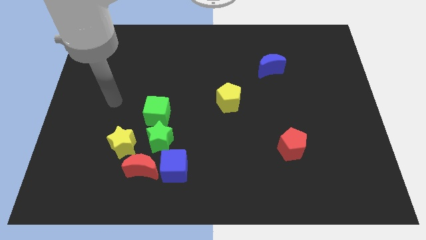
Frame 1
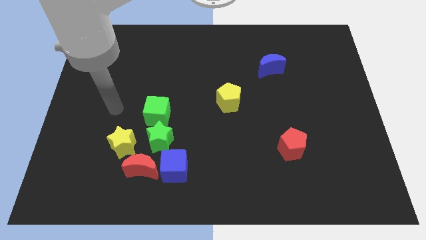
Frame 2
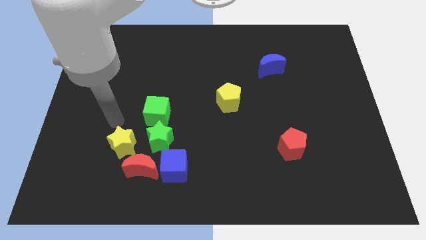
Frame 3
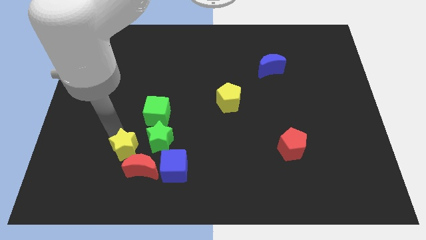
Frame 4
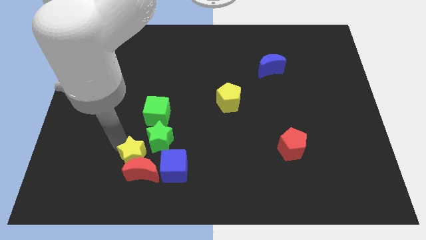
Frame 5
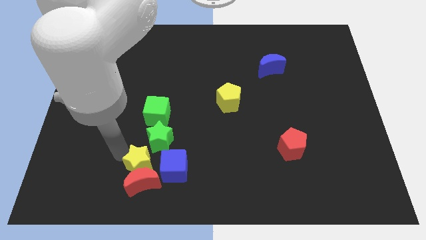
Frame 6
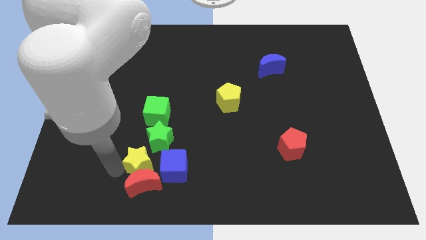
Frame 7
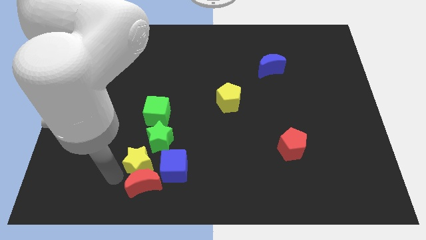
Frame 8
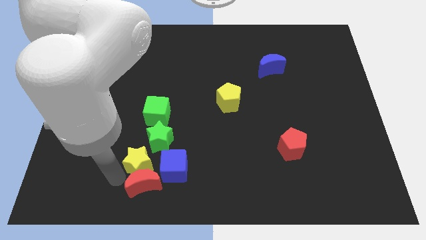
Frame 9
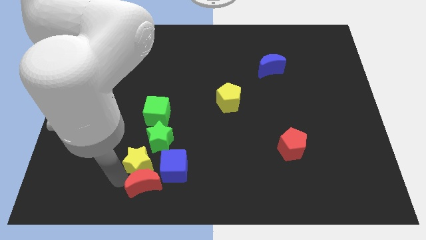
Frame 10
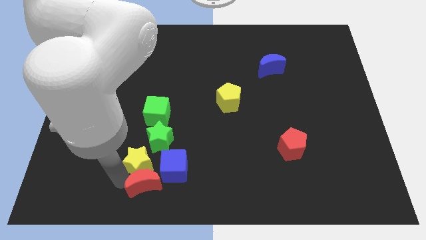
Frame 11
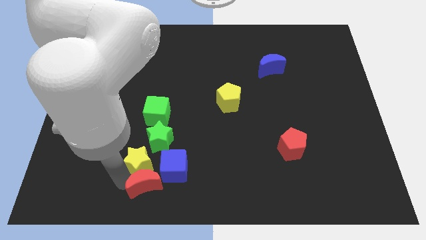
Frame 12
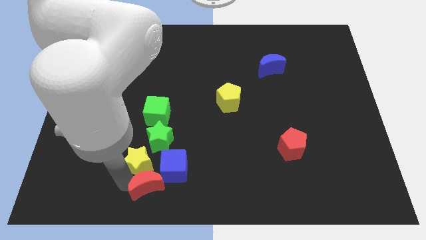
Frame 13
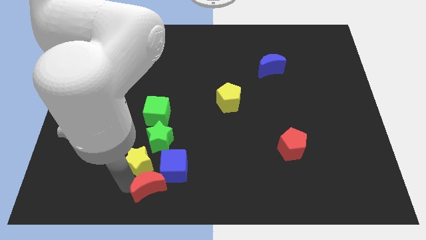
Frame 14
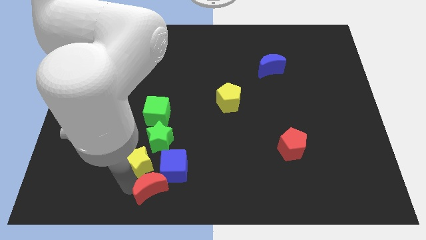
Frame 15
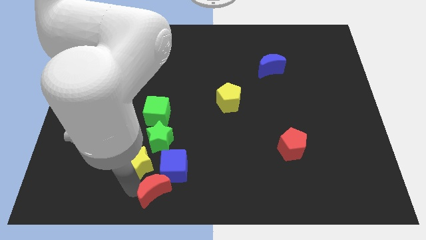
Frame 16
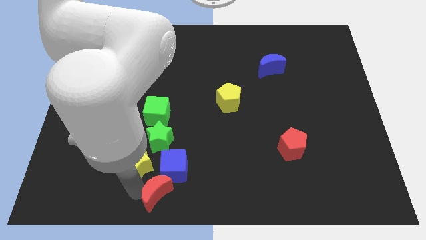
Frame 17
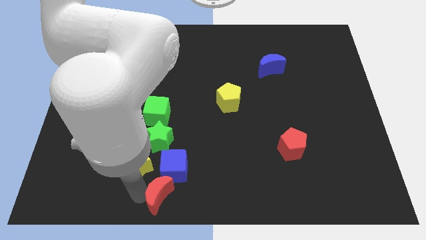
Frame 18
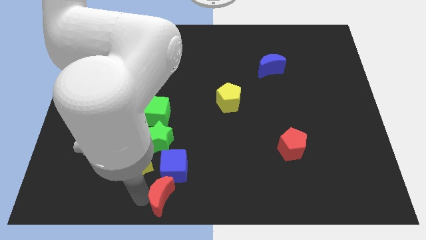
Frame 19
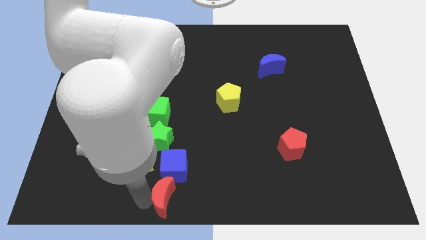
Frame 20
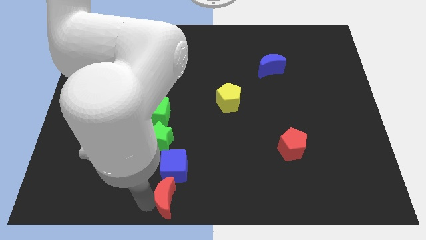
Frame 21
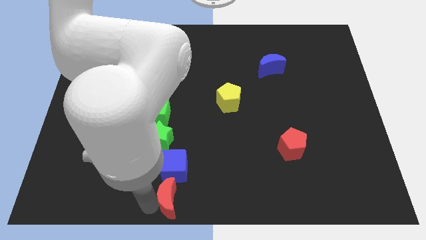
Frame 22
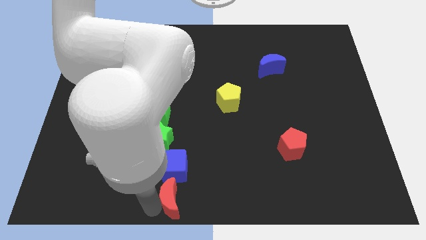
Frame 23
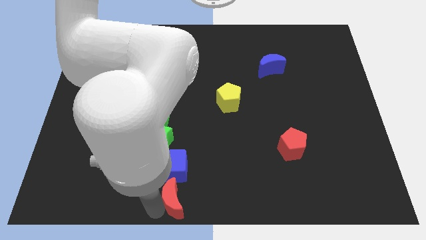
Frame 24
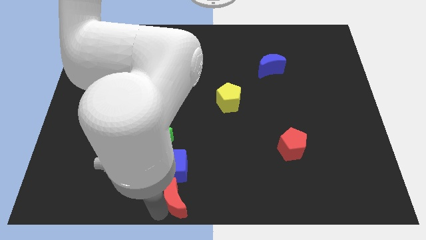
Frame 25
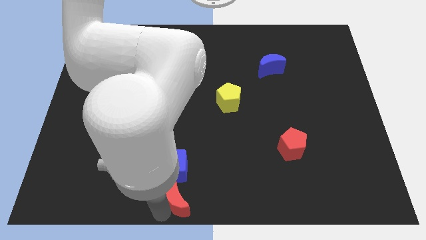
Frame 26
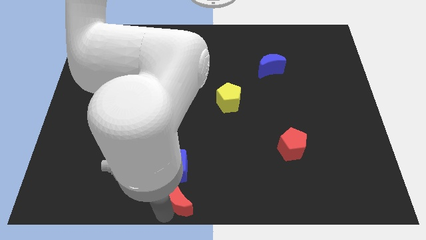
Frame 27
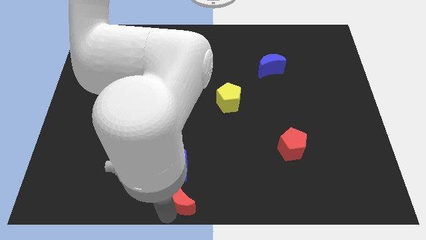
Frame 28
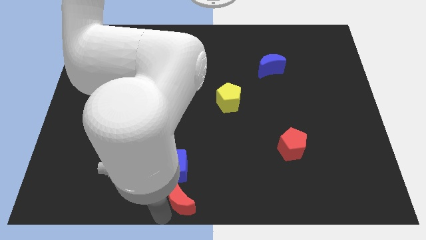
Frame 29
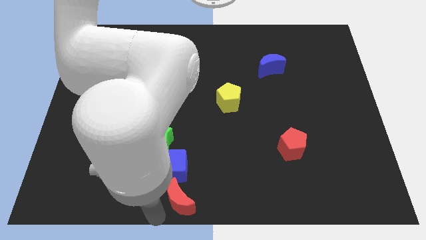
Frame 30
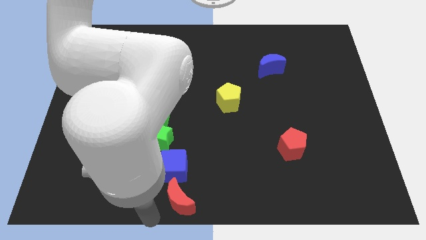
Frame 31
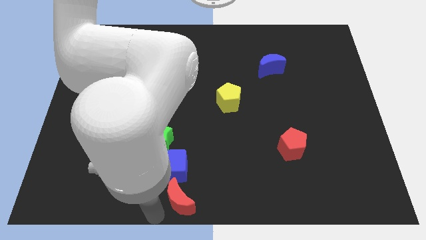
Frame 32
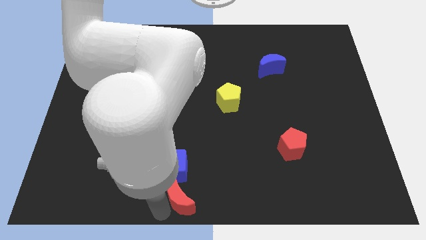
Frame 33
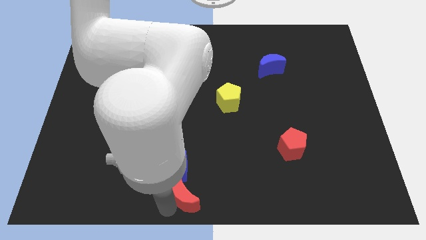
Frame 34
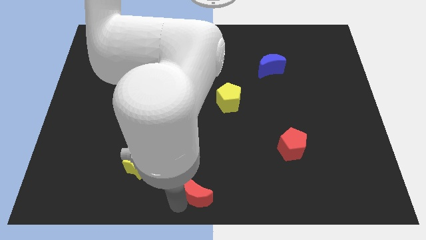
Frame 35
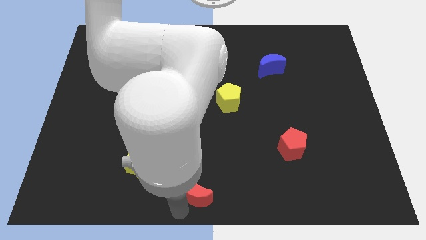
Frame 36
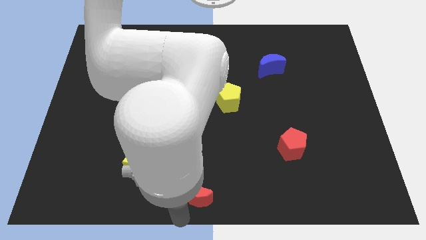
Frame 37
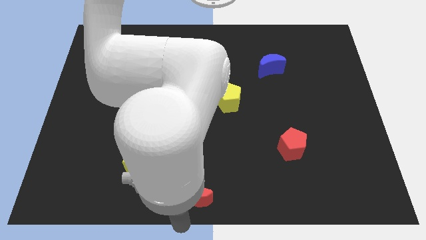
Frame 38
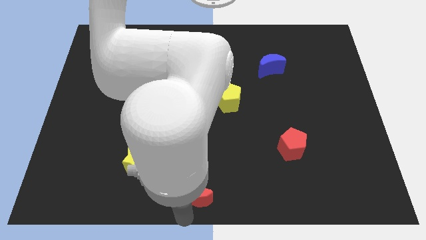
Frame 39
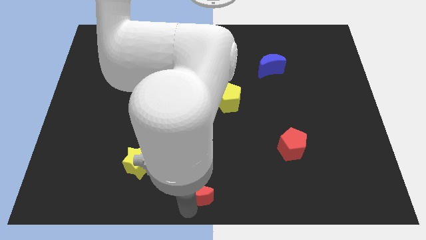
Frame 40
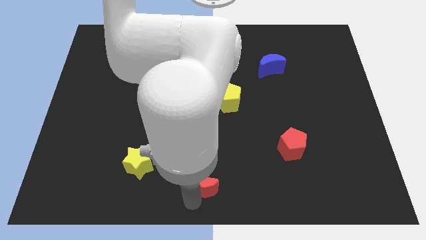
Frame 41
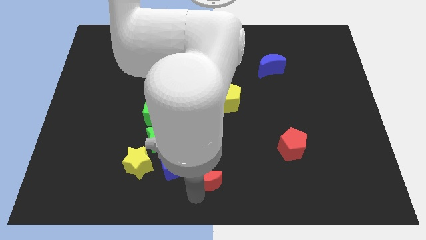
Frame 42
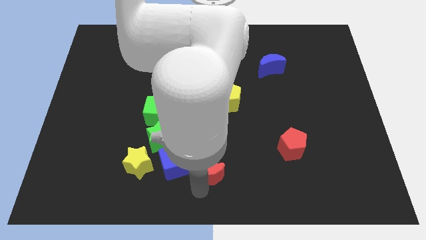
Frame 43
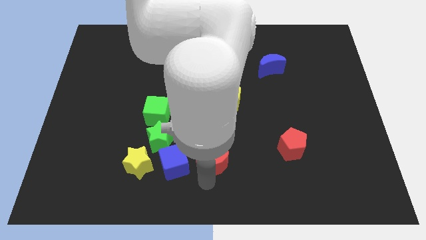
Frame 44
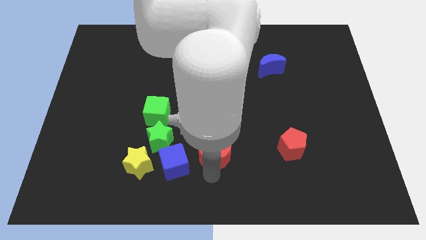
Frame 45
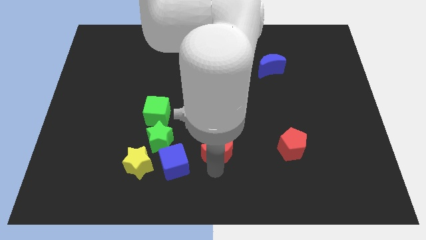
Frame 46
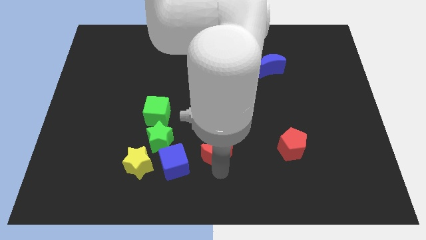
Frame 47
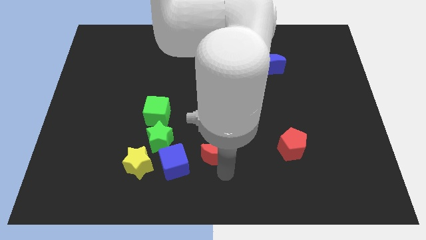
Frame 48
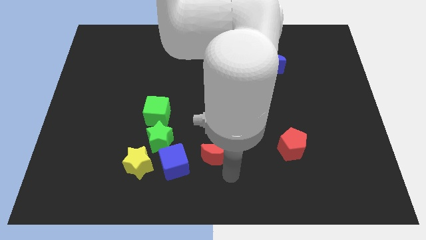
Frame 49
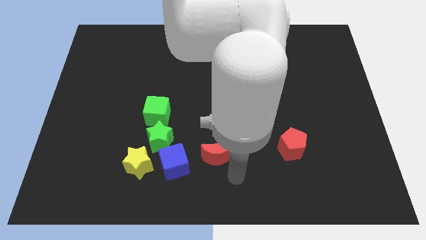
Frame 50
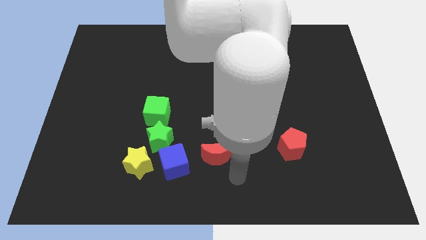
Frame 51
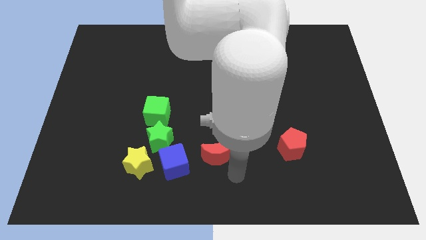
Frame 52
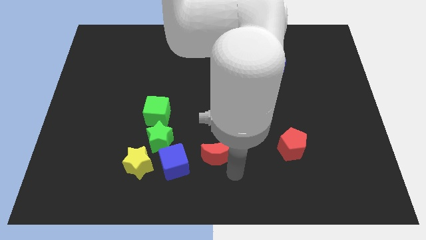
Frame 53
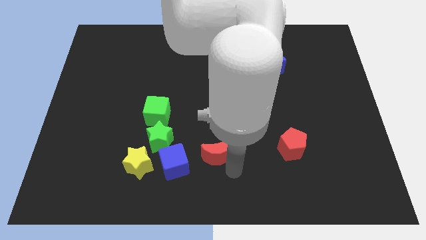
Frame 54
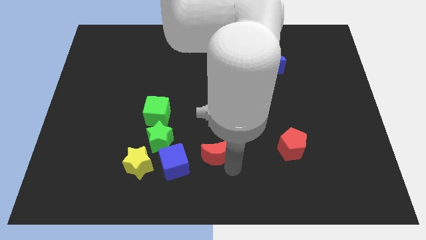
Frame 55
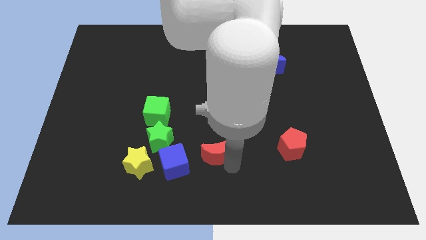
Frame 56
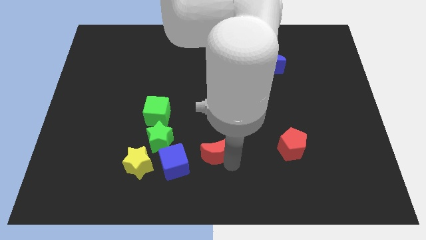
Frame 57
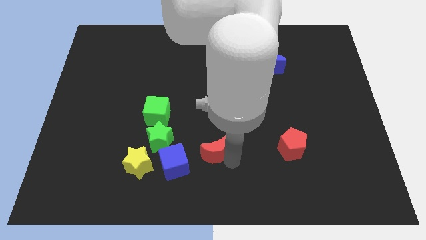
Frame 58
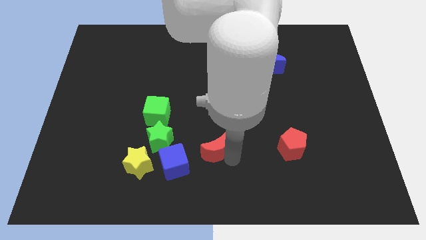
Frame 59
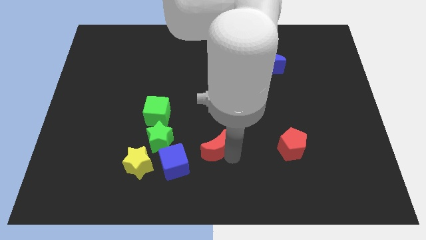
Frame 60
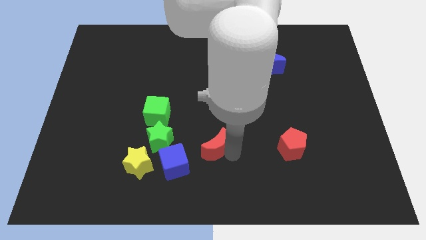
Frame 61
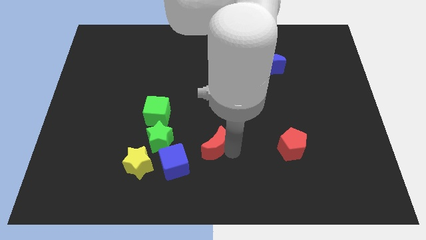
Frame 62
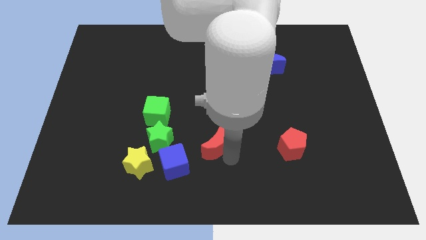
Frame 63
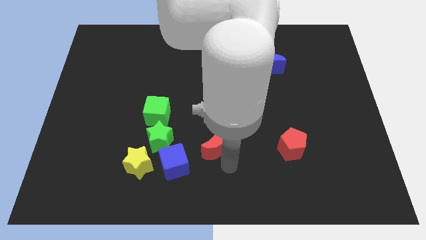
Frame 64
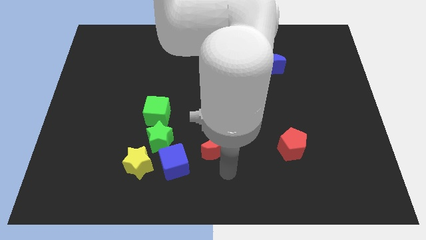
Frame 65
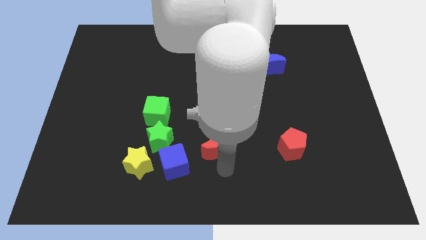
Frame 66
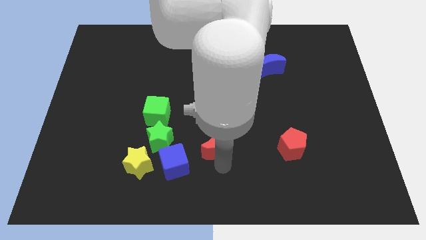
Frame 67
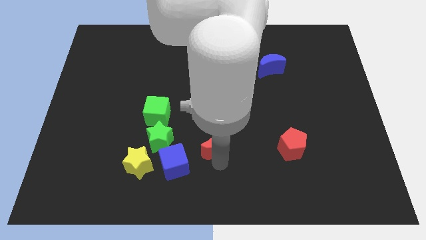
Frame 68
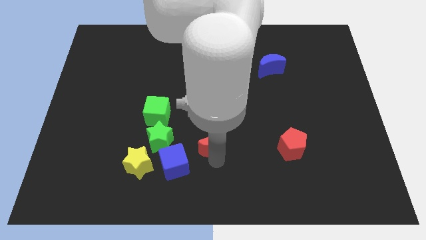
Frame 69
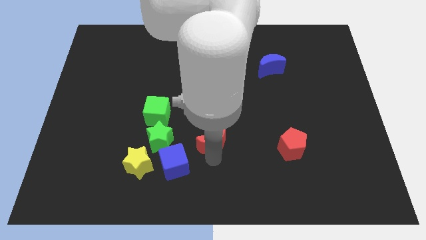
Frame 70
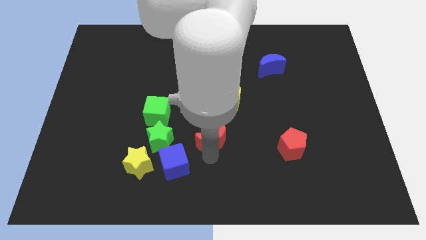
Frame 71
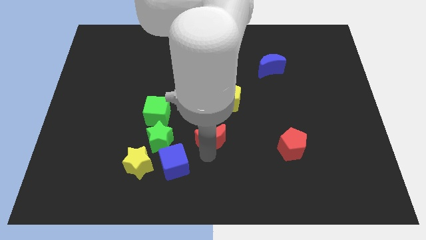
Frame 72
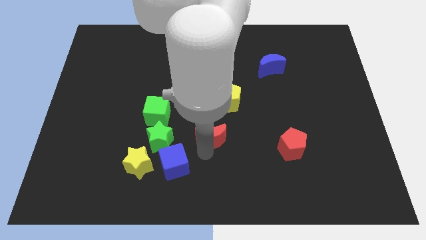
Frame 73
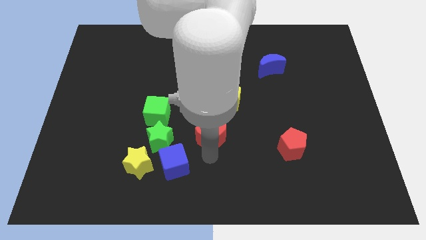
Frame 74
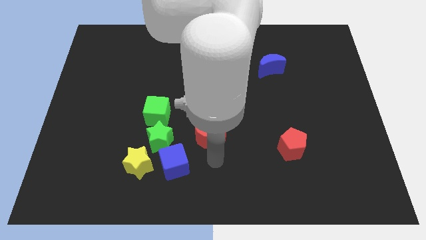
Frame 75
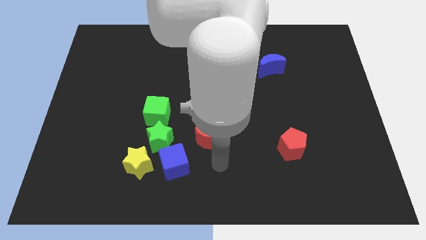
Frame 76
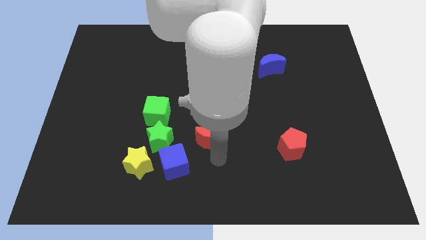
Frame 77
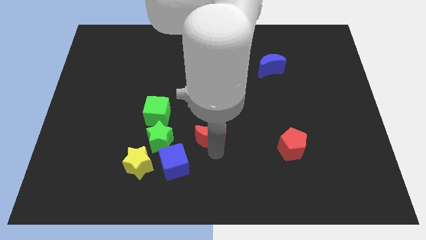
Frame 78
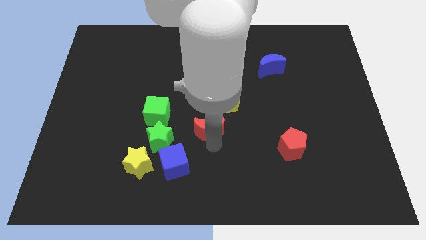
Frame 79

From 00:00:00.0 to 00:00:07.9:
push the red moon right of the green cube
